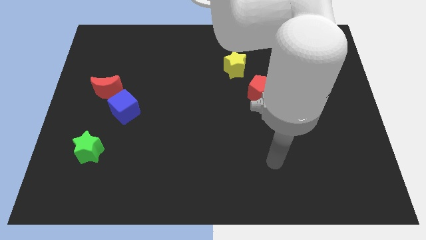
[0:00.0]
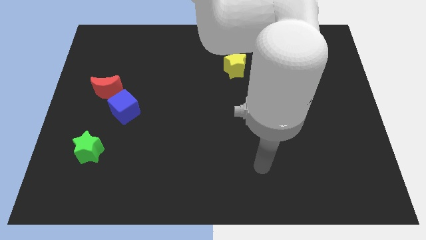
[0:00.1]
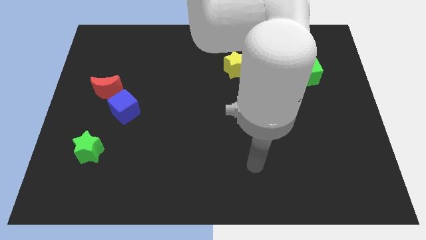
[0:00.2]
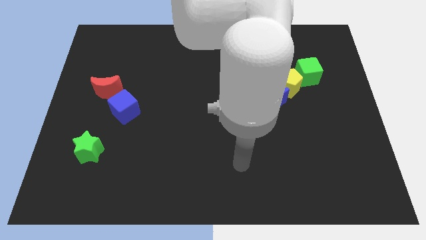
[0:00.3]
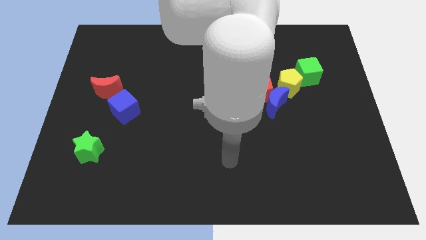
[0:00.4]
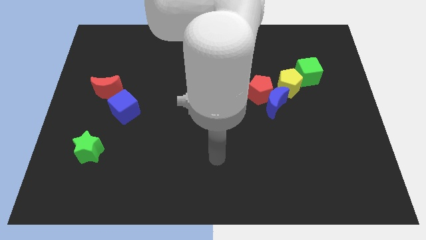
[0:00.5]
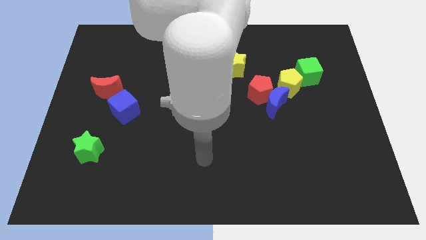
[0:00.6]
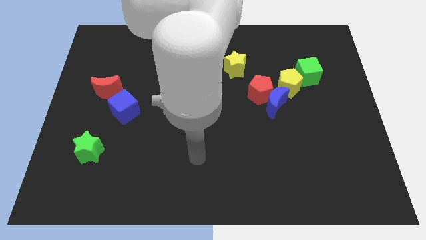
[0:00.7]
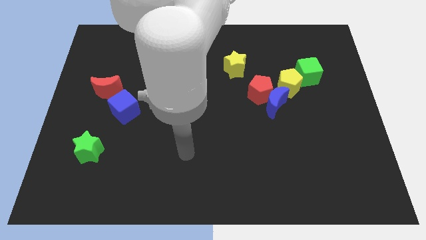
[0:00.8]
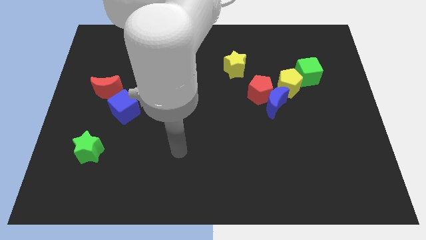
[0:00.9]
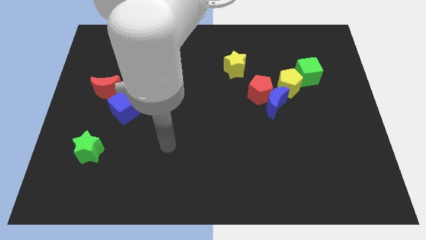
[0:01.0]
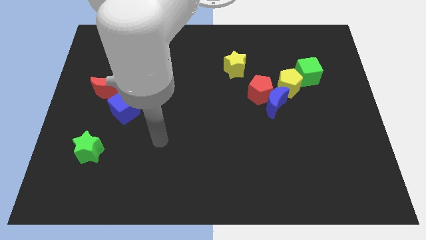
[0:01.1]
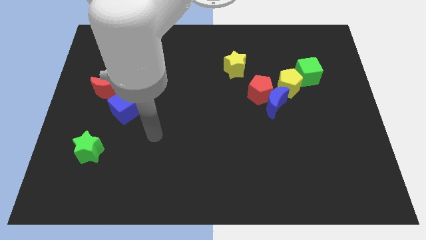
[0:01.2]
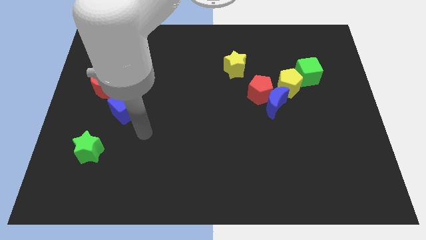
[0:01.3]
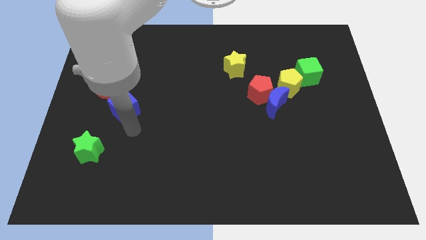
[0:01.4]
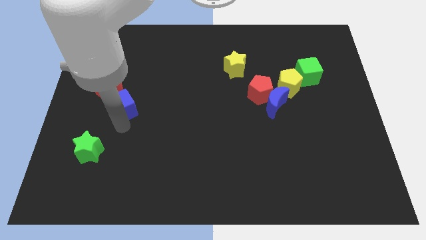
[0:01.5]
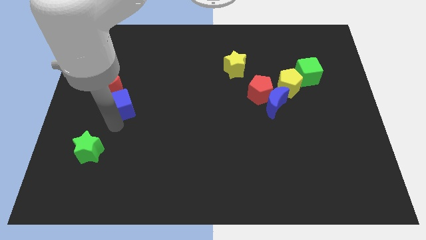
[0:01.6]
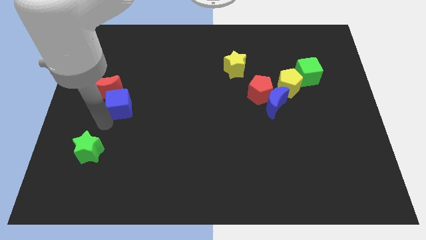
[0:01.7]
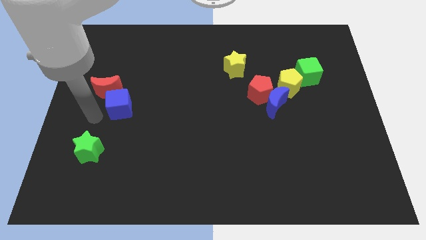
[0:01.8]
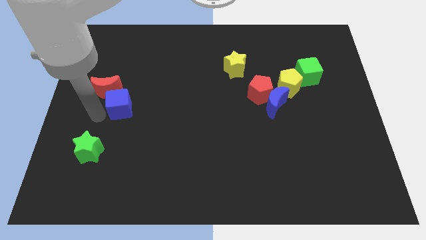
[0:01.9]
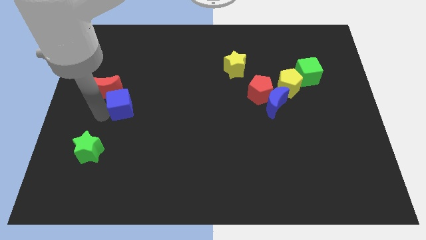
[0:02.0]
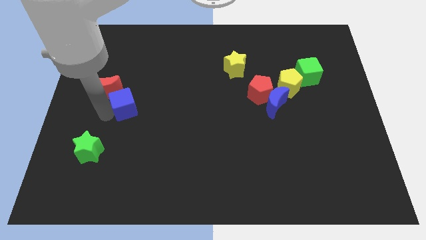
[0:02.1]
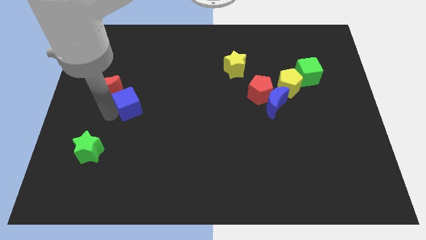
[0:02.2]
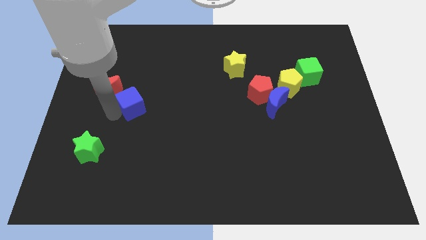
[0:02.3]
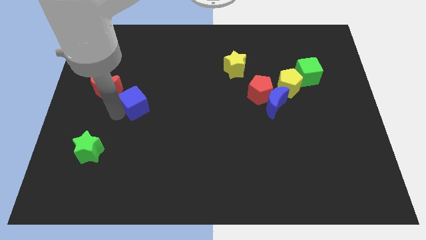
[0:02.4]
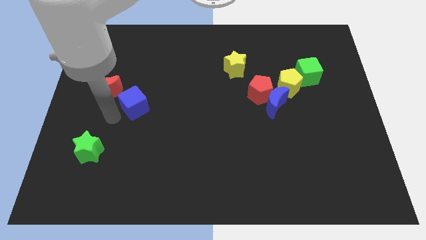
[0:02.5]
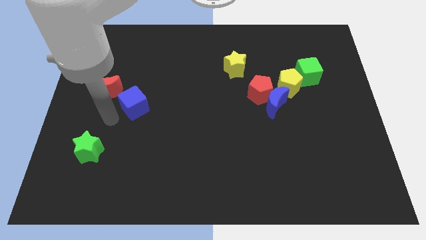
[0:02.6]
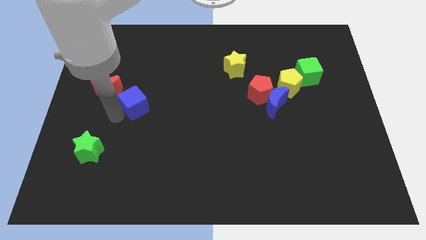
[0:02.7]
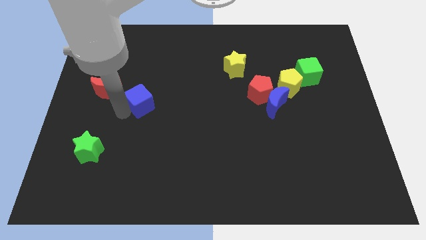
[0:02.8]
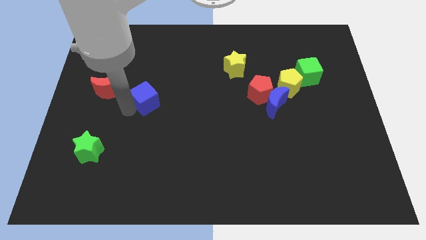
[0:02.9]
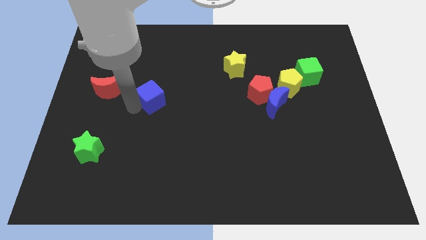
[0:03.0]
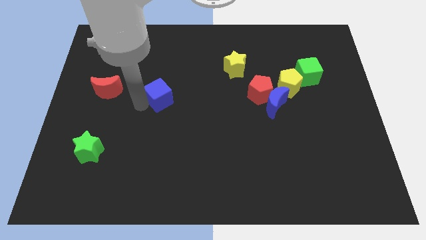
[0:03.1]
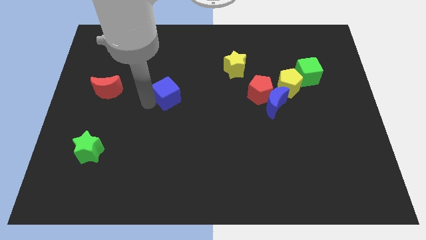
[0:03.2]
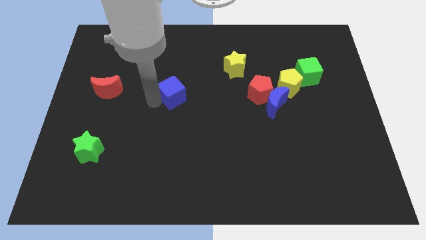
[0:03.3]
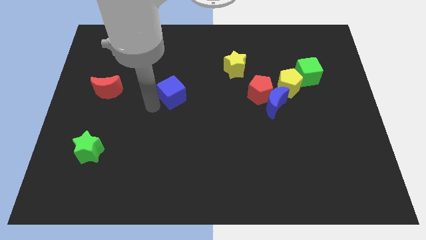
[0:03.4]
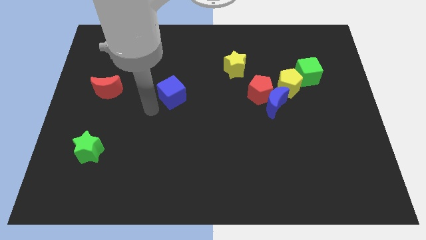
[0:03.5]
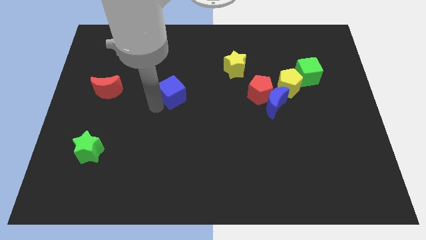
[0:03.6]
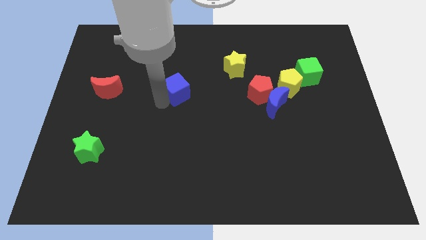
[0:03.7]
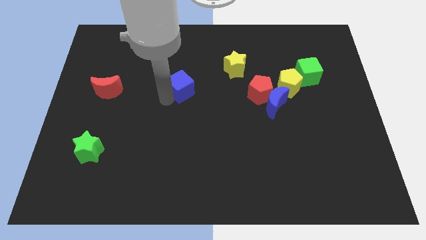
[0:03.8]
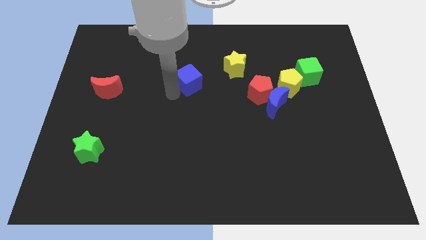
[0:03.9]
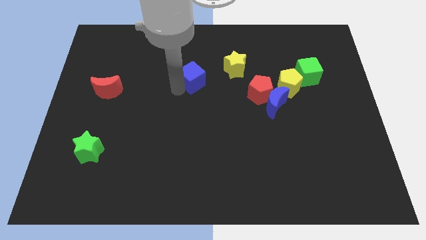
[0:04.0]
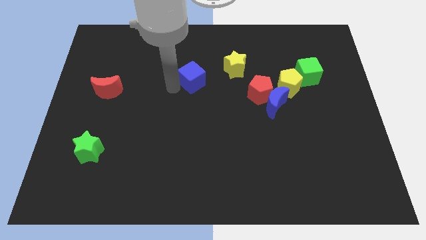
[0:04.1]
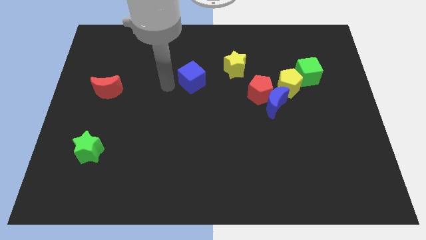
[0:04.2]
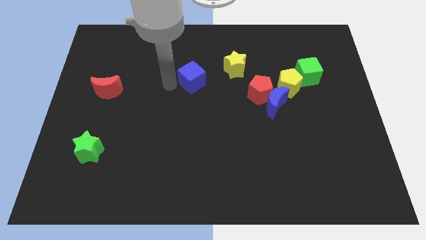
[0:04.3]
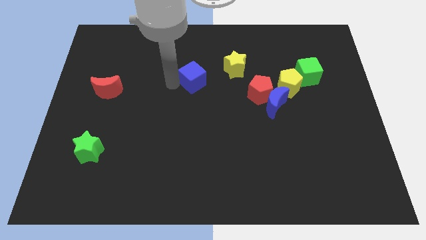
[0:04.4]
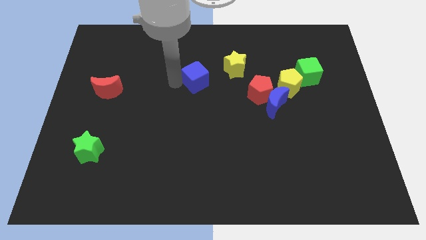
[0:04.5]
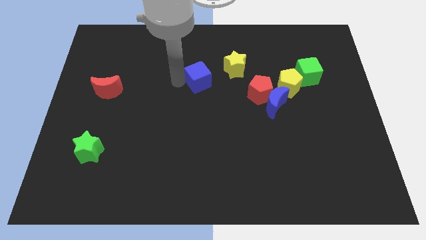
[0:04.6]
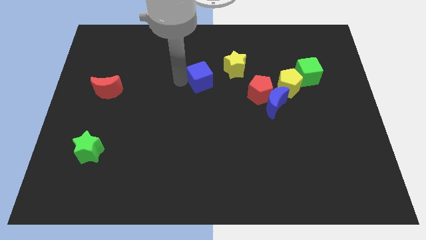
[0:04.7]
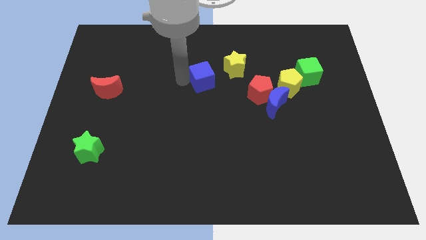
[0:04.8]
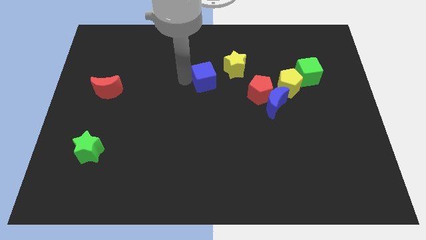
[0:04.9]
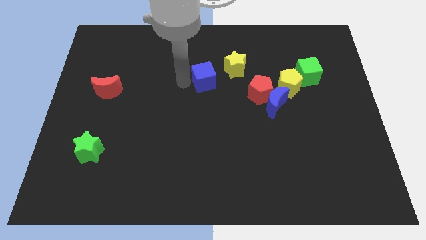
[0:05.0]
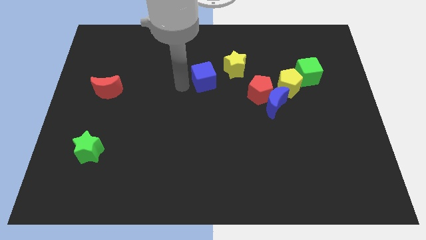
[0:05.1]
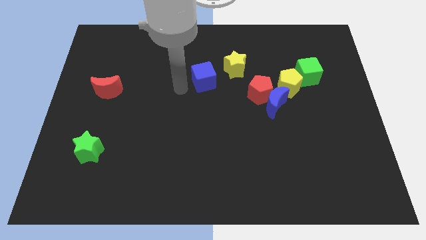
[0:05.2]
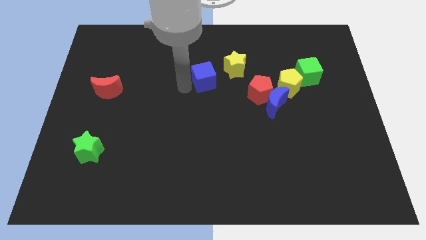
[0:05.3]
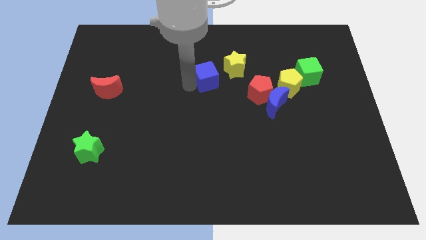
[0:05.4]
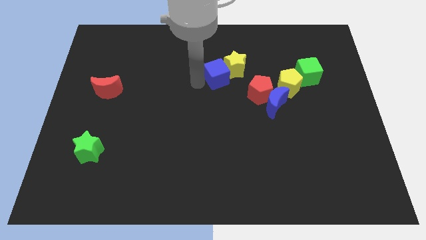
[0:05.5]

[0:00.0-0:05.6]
move the blue cube close to the yellow star

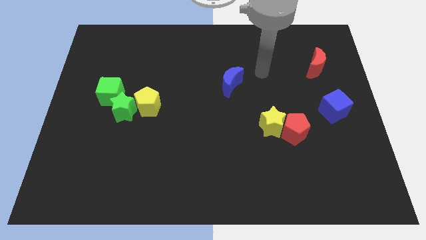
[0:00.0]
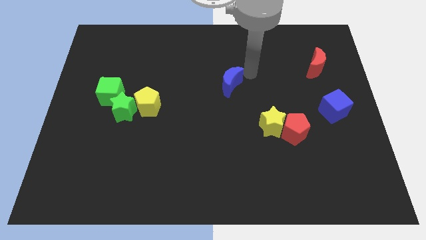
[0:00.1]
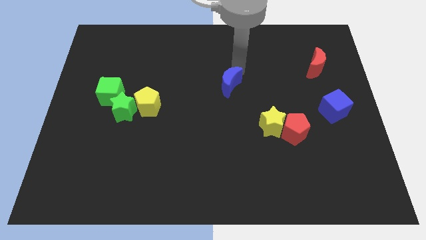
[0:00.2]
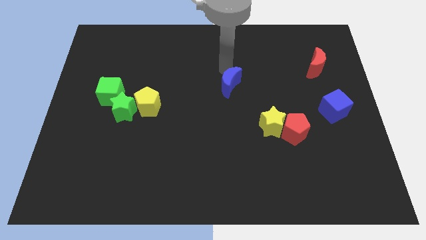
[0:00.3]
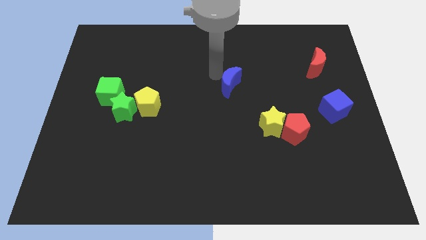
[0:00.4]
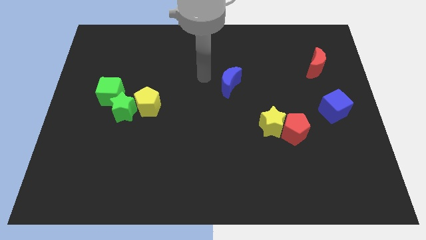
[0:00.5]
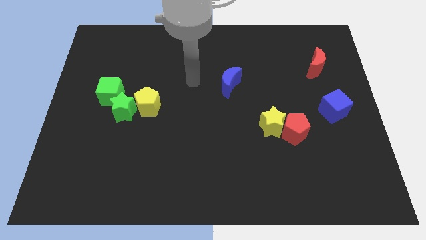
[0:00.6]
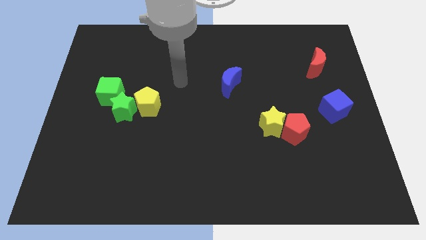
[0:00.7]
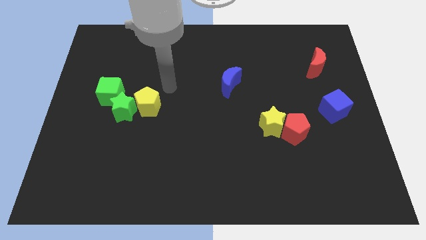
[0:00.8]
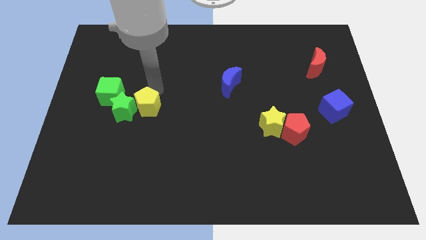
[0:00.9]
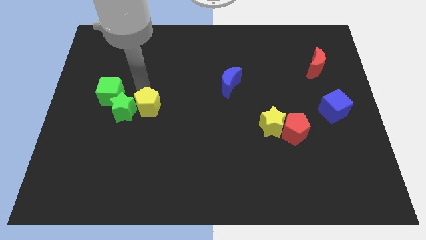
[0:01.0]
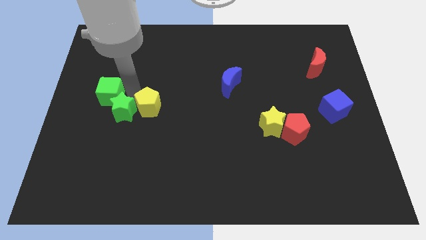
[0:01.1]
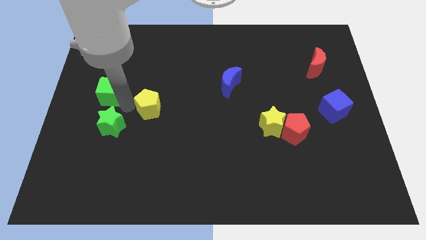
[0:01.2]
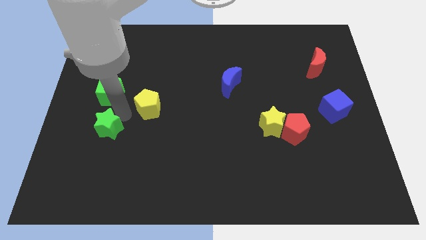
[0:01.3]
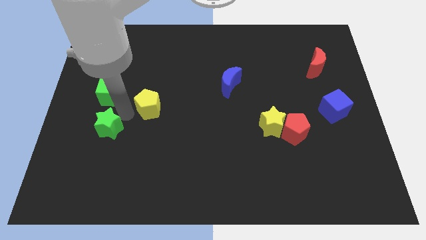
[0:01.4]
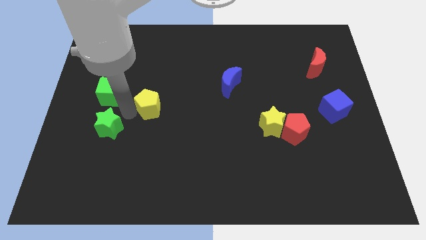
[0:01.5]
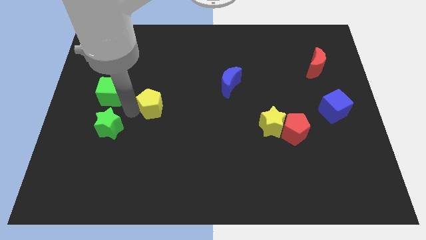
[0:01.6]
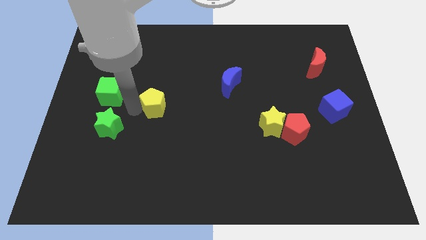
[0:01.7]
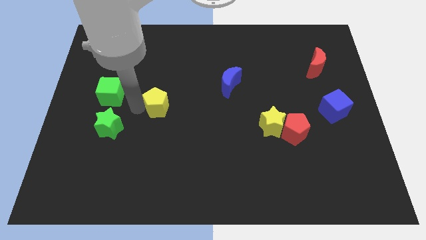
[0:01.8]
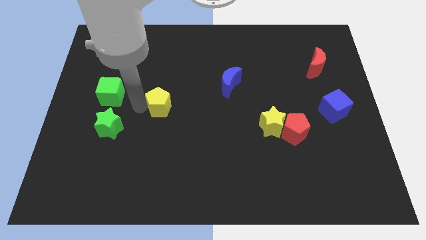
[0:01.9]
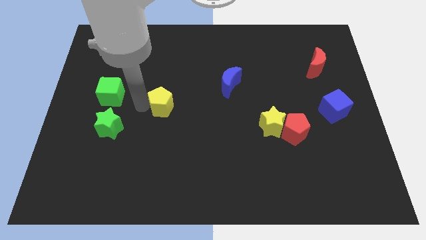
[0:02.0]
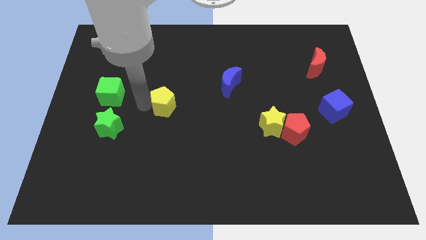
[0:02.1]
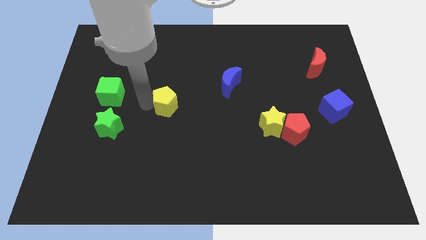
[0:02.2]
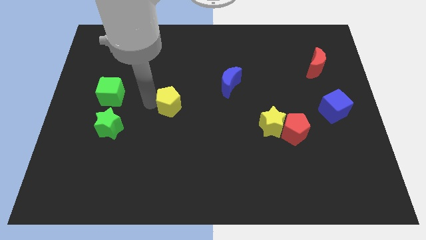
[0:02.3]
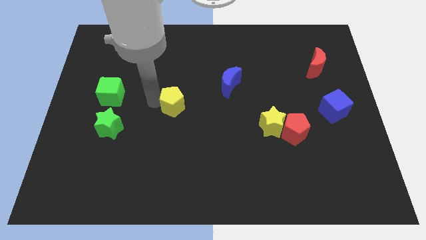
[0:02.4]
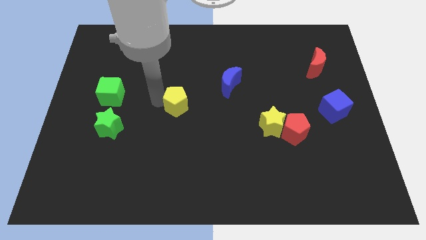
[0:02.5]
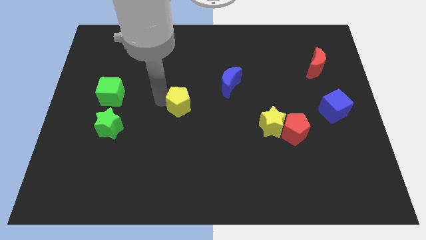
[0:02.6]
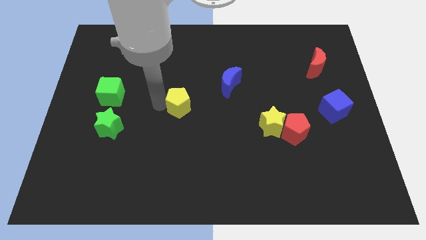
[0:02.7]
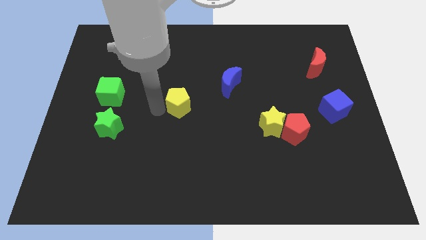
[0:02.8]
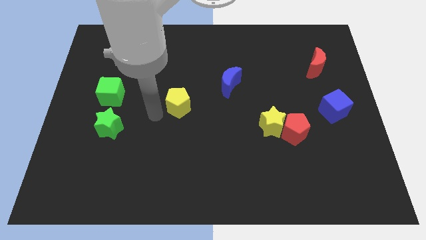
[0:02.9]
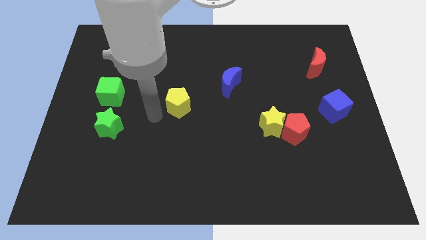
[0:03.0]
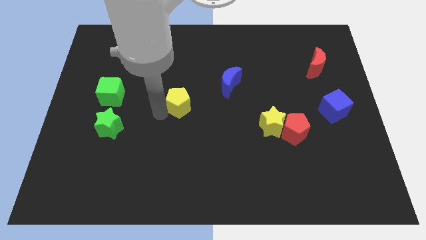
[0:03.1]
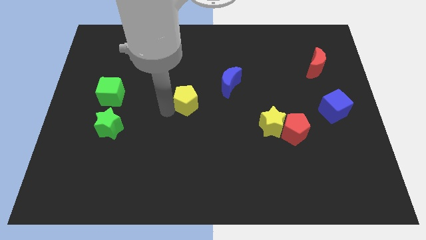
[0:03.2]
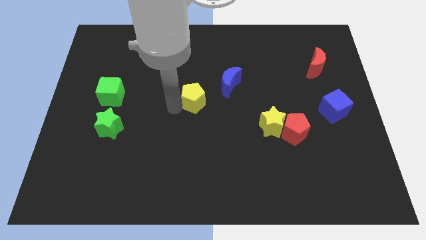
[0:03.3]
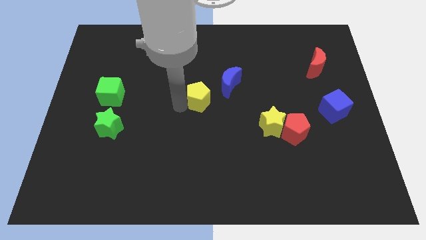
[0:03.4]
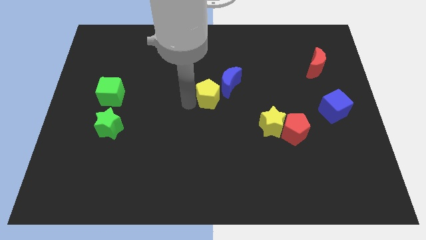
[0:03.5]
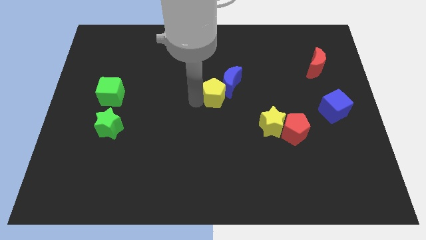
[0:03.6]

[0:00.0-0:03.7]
move the yellow pentagon to the blue moon
